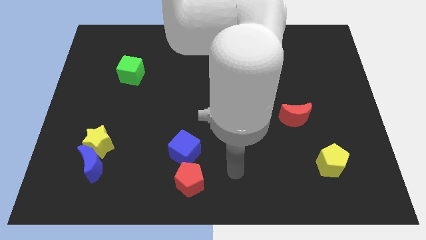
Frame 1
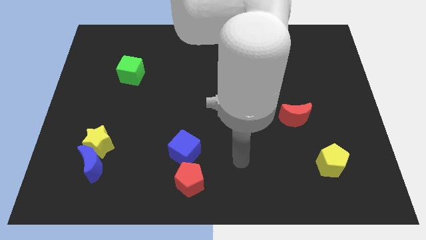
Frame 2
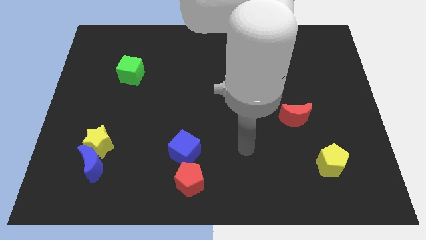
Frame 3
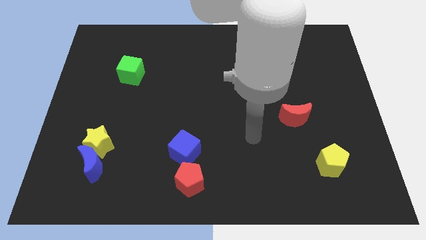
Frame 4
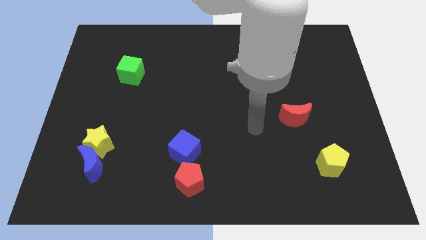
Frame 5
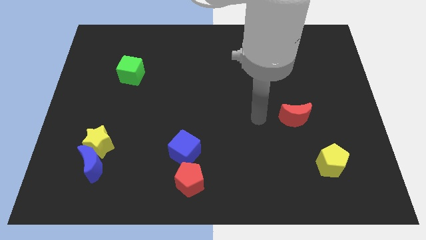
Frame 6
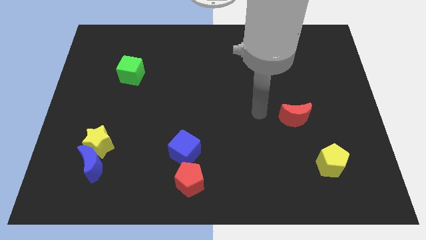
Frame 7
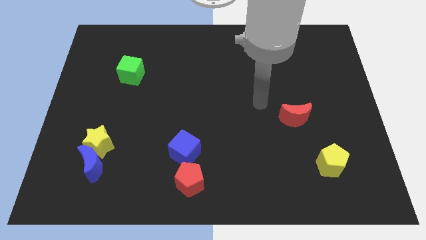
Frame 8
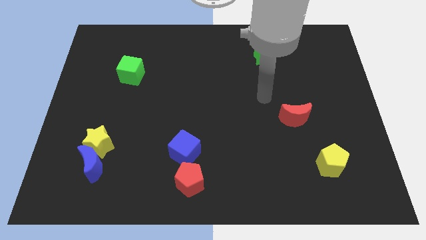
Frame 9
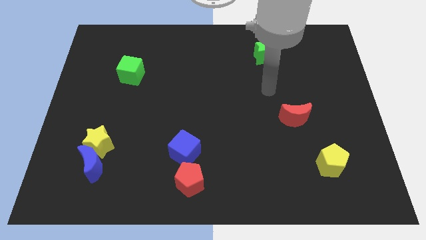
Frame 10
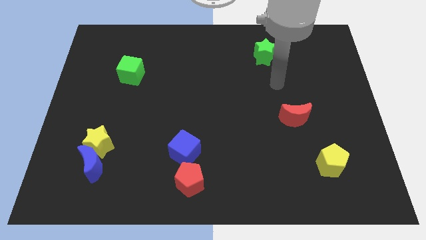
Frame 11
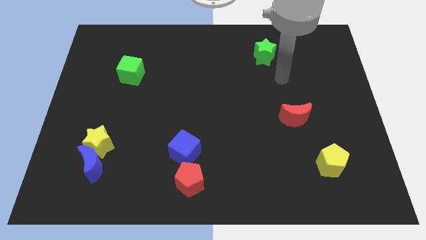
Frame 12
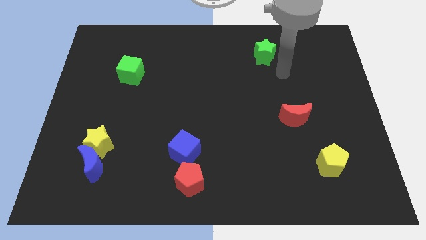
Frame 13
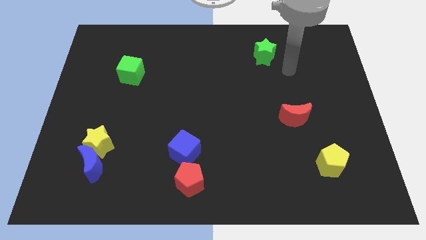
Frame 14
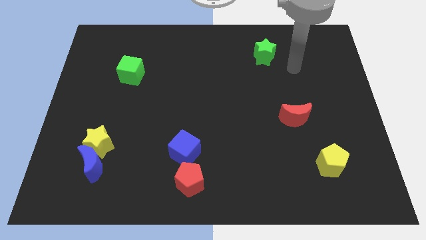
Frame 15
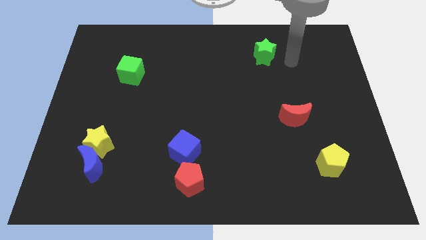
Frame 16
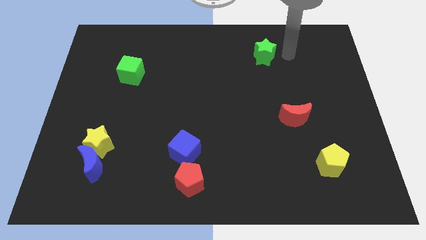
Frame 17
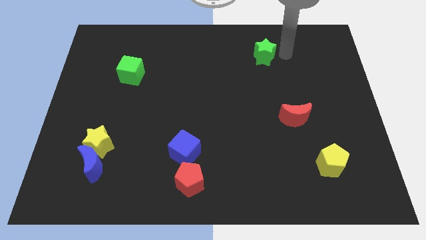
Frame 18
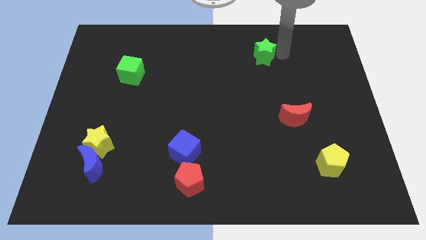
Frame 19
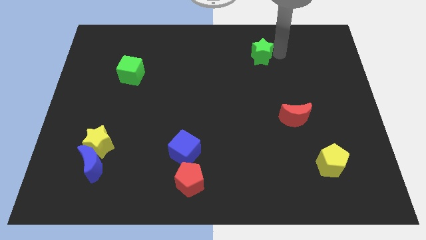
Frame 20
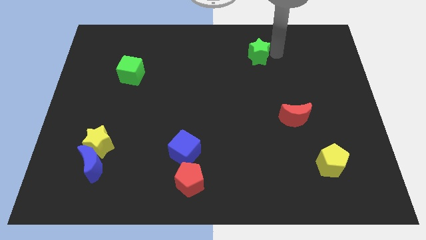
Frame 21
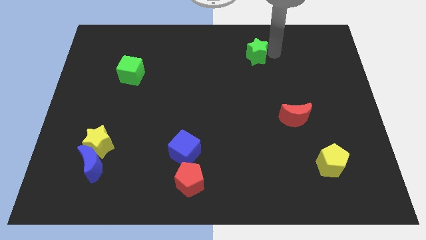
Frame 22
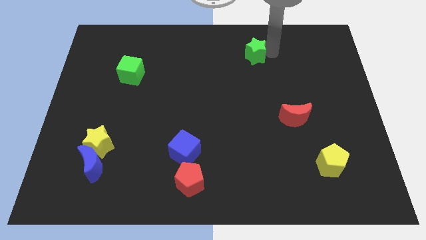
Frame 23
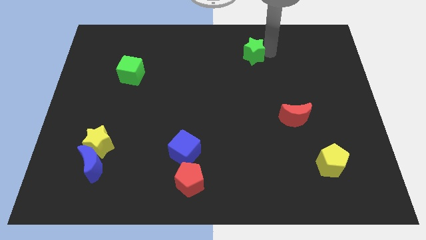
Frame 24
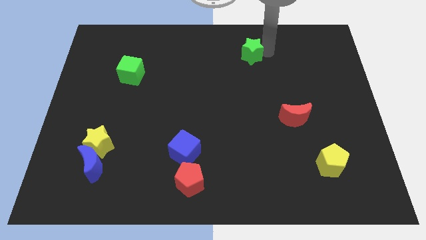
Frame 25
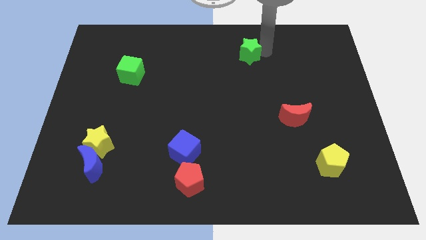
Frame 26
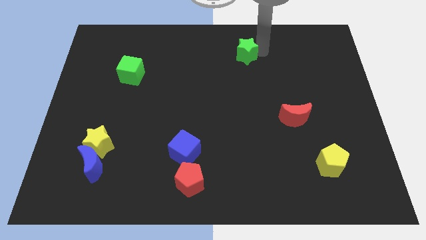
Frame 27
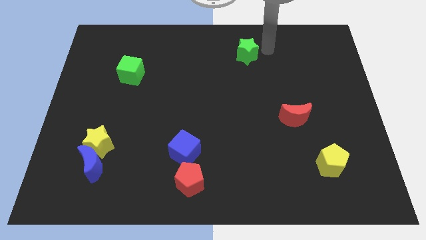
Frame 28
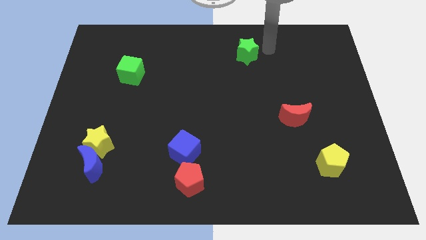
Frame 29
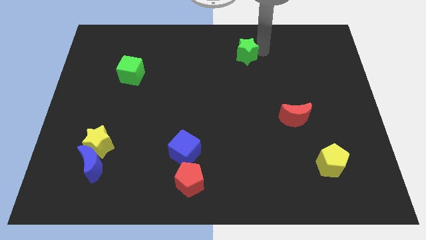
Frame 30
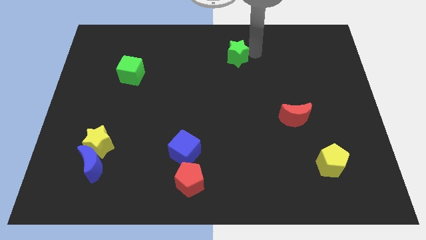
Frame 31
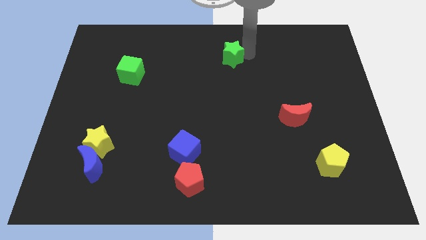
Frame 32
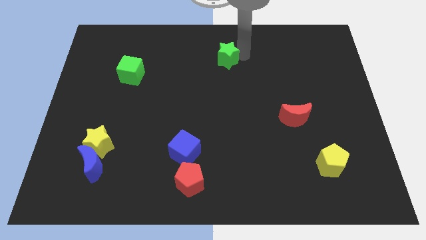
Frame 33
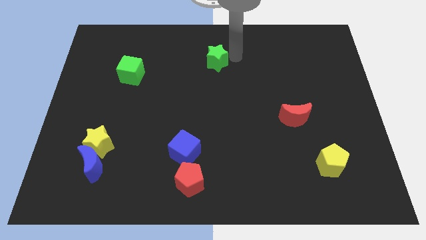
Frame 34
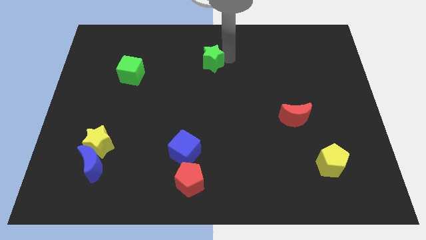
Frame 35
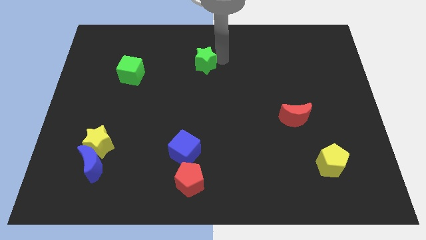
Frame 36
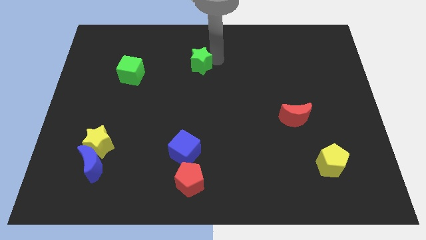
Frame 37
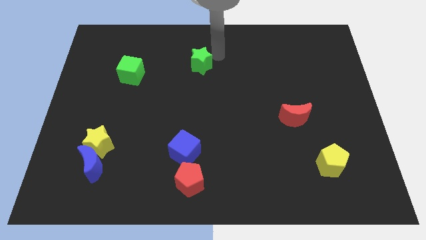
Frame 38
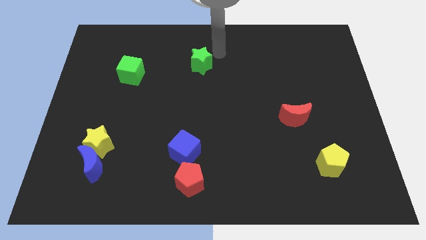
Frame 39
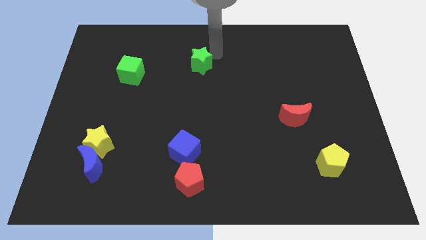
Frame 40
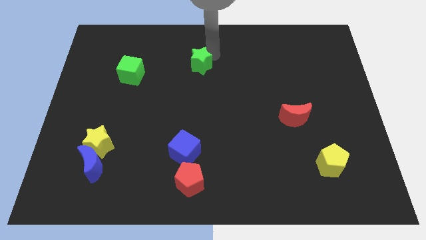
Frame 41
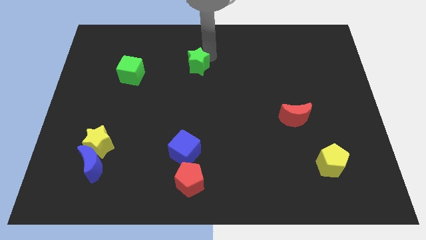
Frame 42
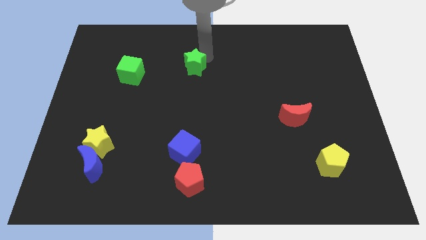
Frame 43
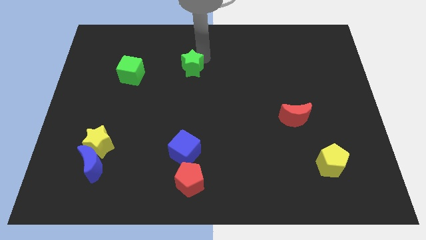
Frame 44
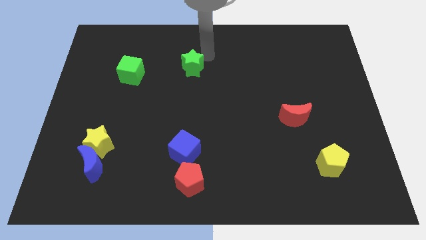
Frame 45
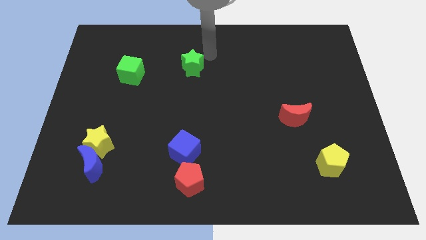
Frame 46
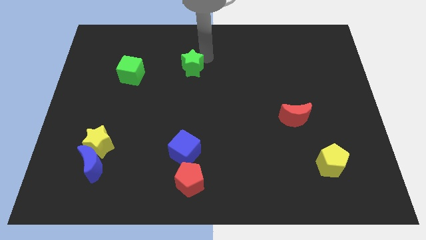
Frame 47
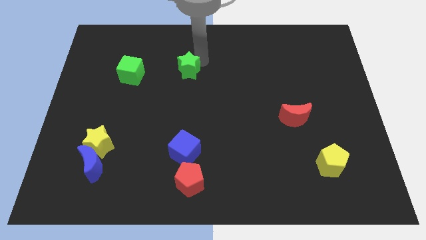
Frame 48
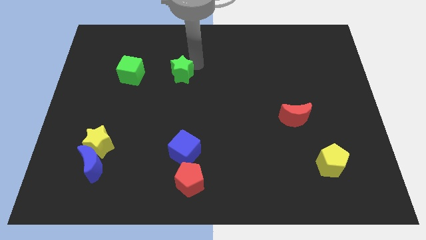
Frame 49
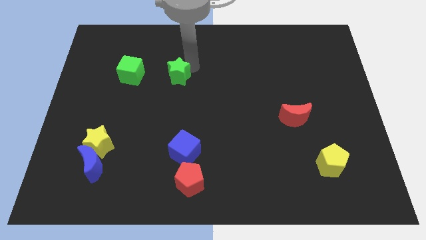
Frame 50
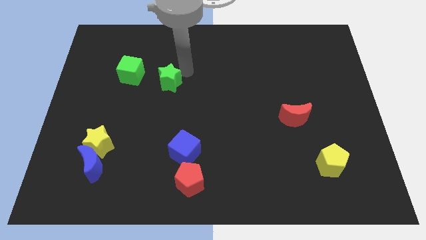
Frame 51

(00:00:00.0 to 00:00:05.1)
put the green star diagonally down and to the right of the green cube

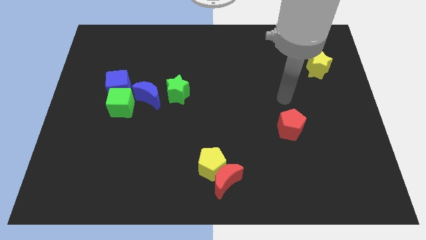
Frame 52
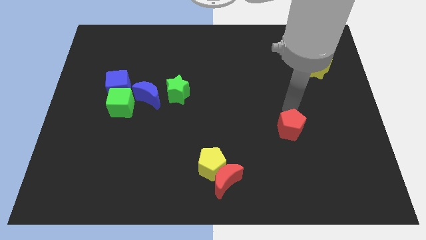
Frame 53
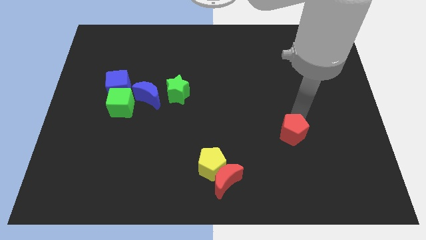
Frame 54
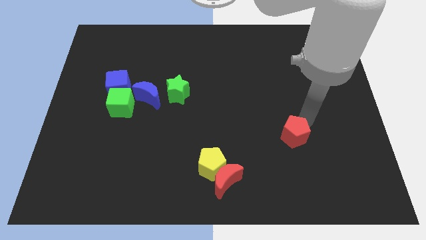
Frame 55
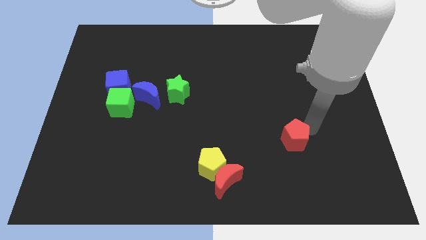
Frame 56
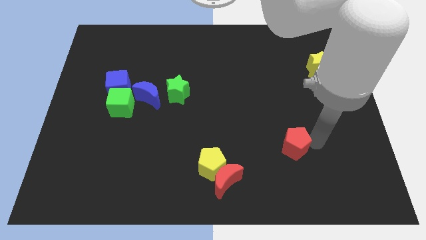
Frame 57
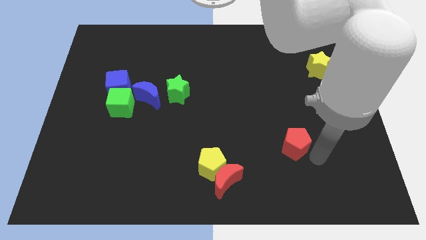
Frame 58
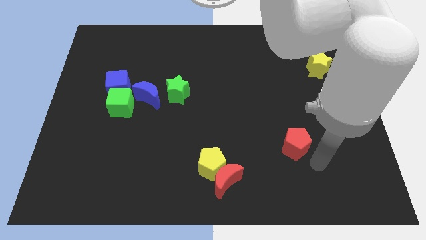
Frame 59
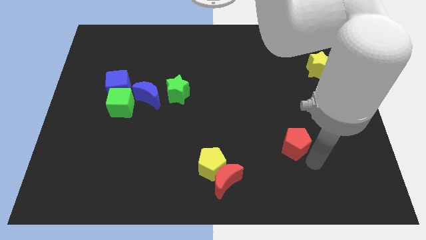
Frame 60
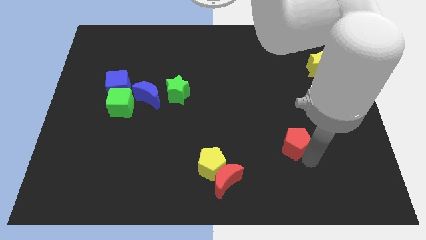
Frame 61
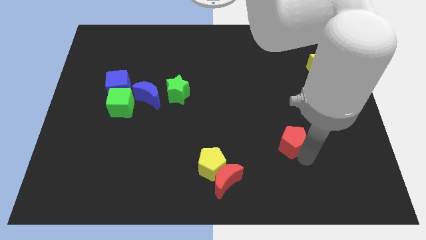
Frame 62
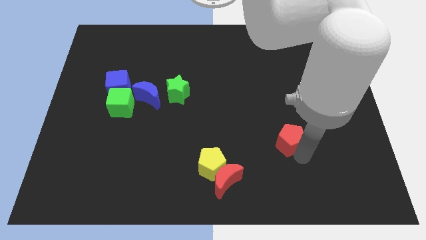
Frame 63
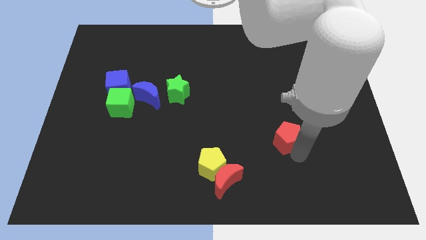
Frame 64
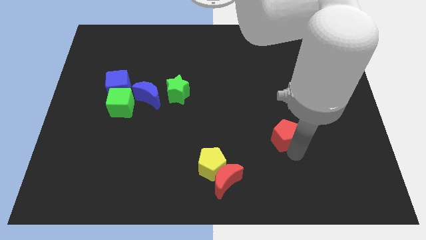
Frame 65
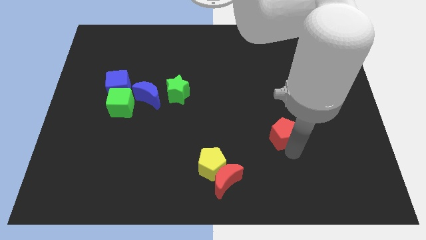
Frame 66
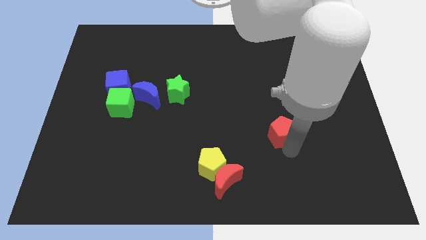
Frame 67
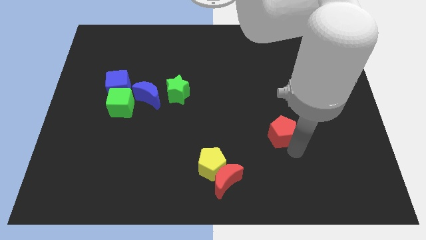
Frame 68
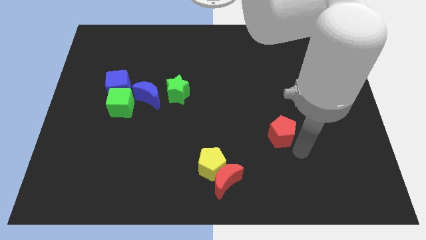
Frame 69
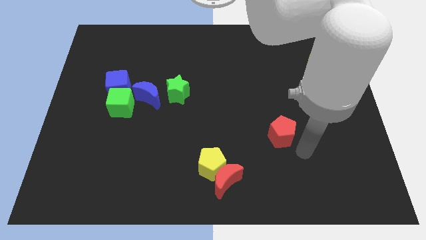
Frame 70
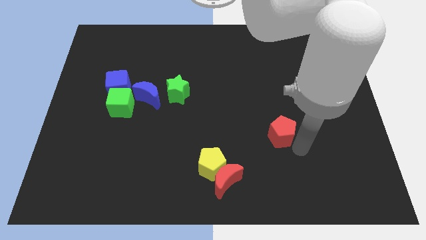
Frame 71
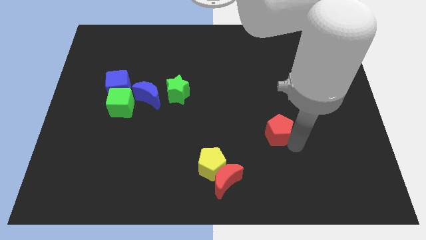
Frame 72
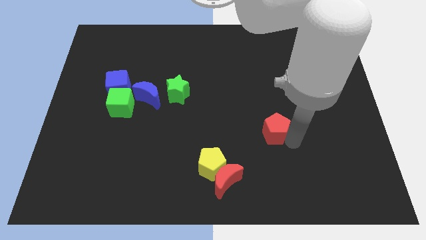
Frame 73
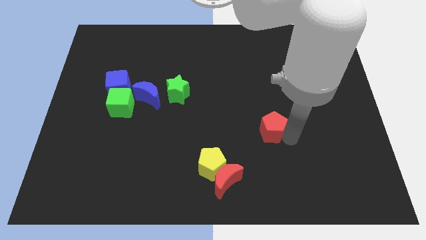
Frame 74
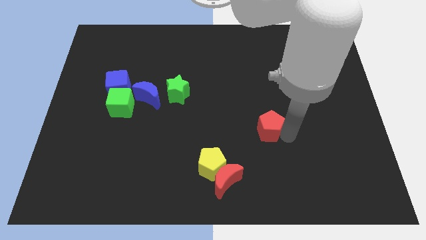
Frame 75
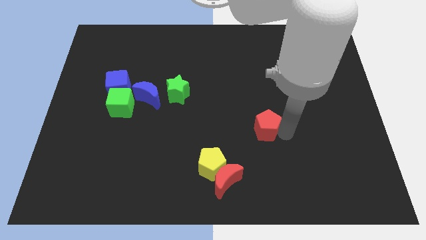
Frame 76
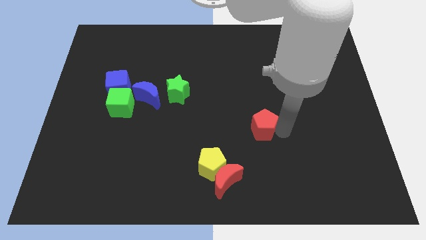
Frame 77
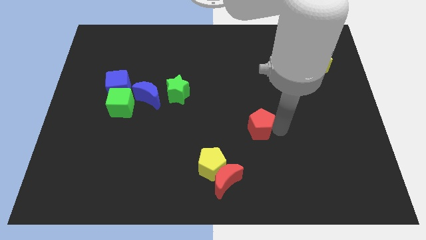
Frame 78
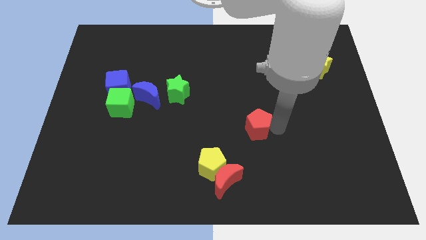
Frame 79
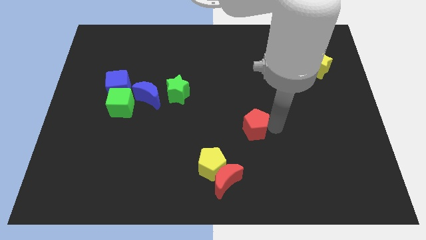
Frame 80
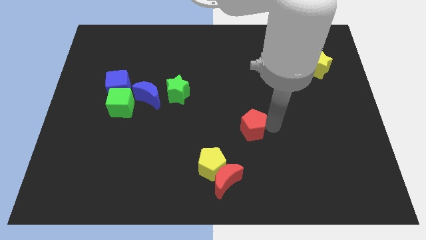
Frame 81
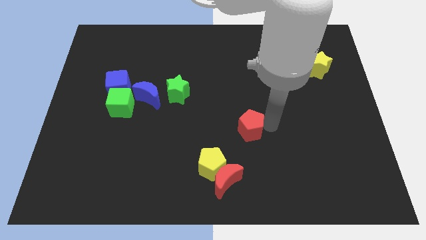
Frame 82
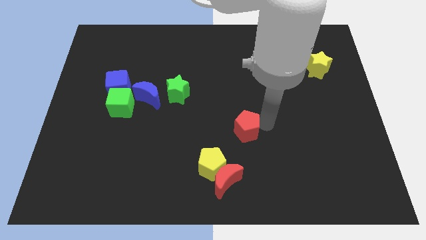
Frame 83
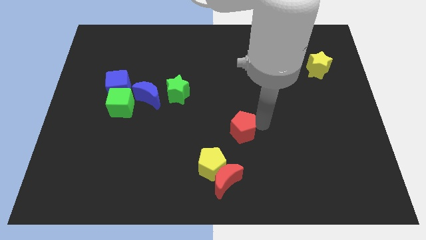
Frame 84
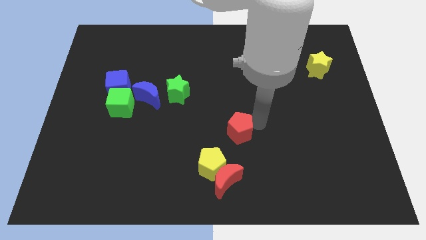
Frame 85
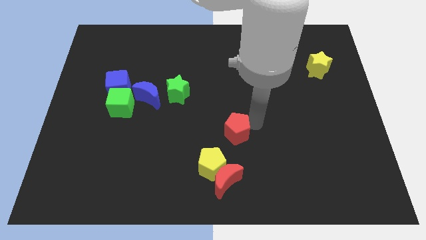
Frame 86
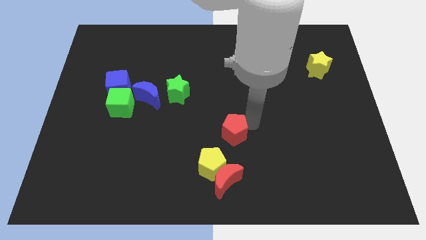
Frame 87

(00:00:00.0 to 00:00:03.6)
slide the red pentagon to the top of the yellow pentagon
